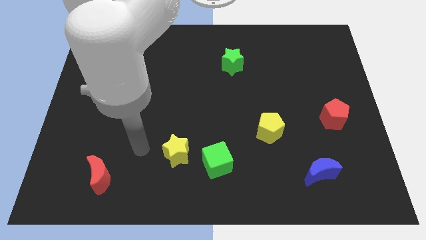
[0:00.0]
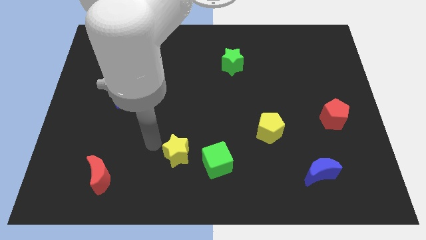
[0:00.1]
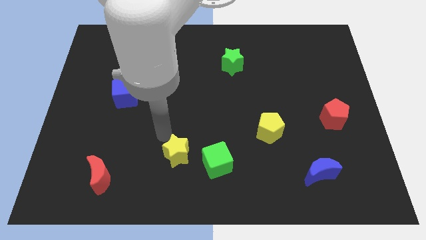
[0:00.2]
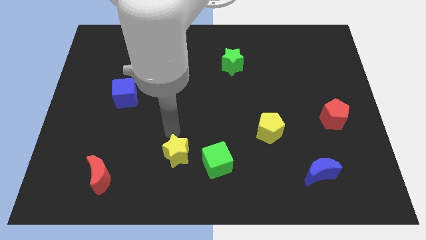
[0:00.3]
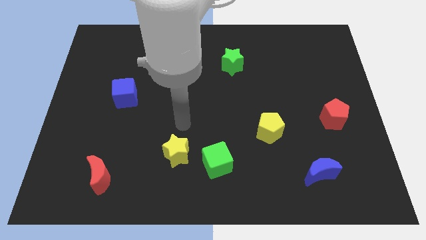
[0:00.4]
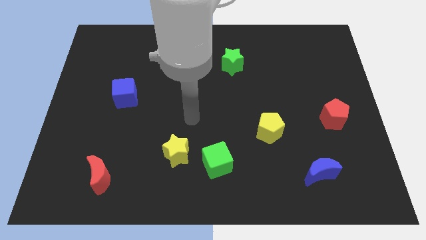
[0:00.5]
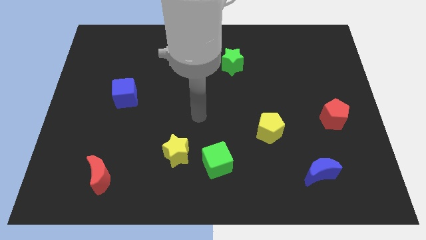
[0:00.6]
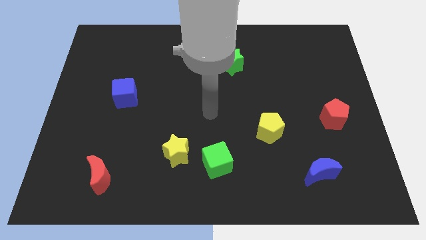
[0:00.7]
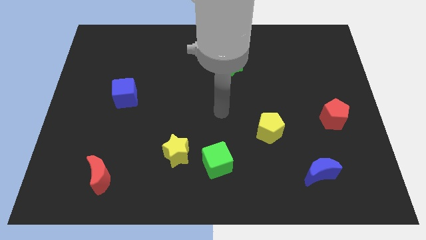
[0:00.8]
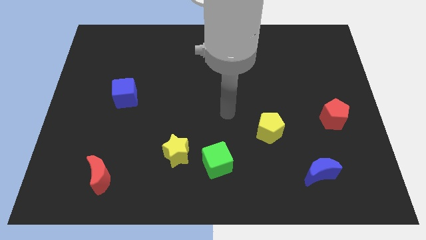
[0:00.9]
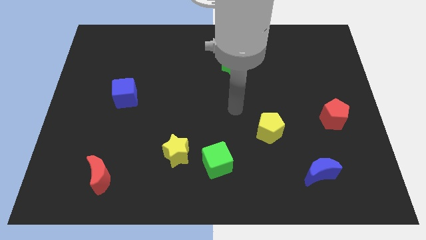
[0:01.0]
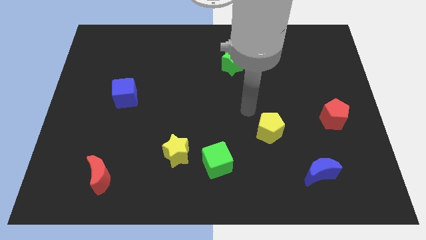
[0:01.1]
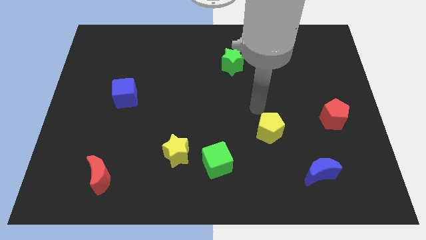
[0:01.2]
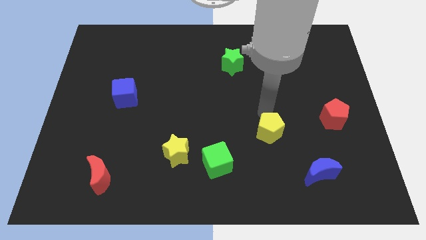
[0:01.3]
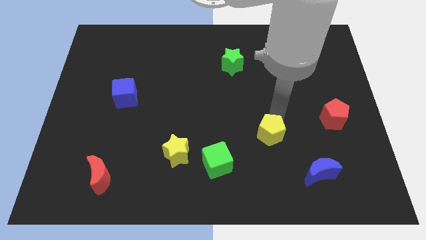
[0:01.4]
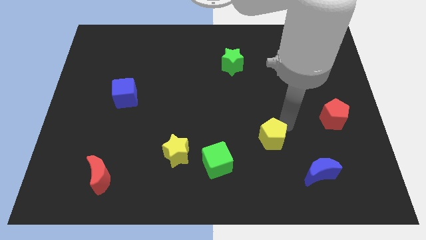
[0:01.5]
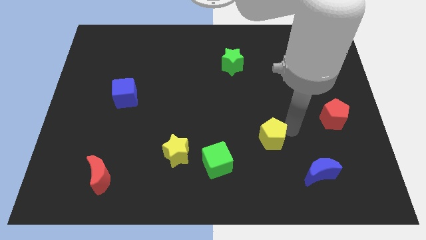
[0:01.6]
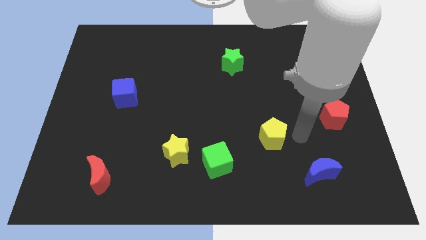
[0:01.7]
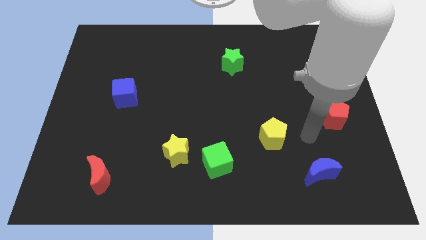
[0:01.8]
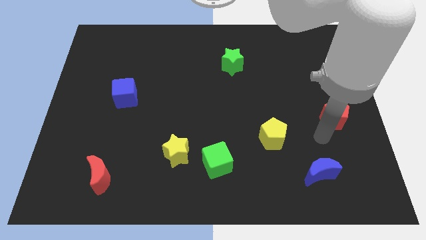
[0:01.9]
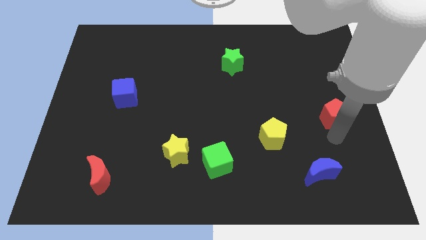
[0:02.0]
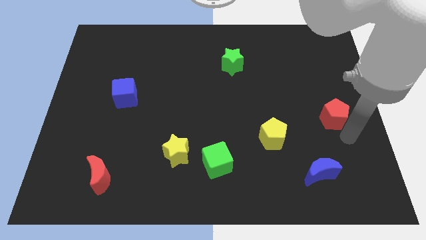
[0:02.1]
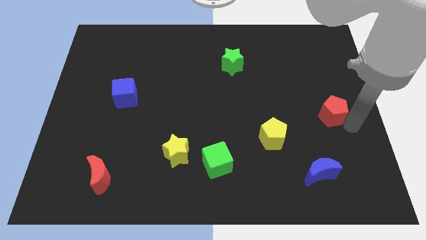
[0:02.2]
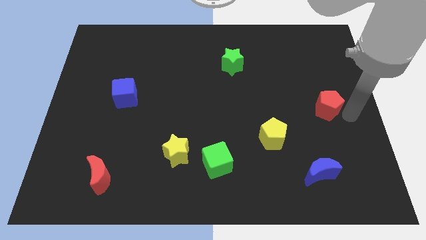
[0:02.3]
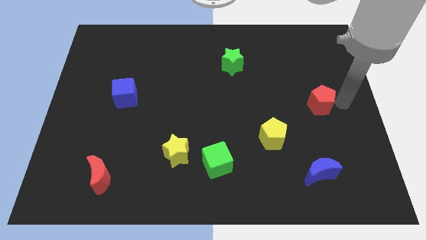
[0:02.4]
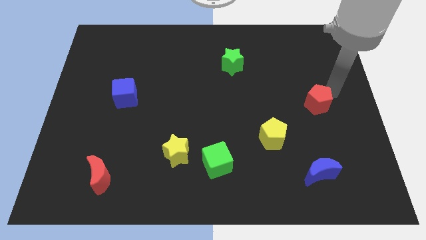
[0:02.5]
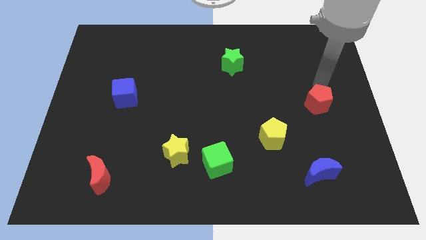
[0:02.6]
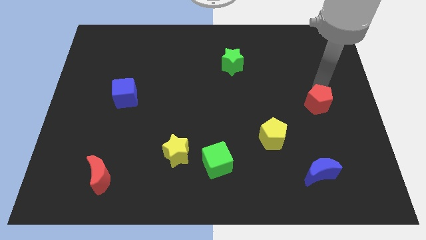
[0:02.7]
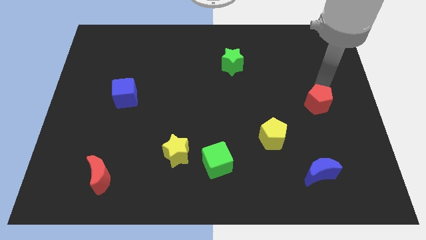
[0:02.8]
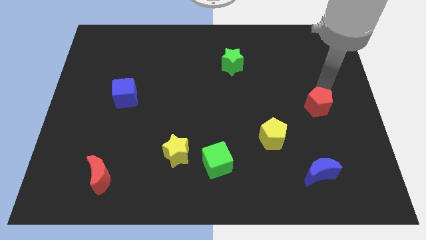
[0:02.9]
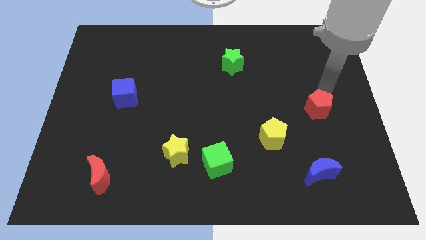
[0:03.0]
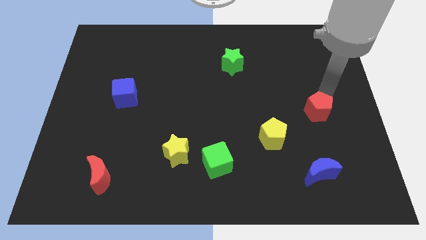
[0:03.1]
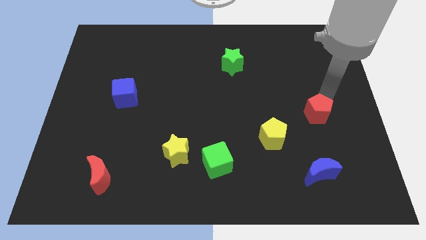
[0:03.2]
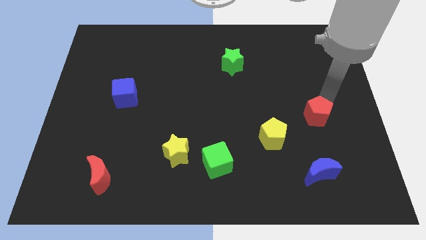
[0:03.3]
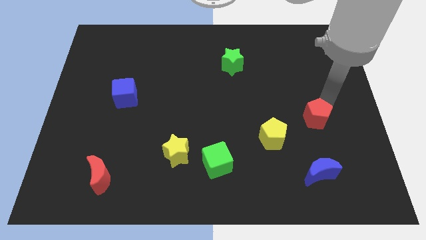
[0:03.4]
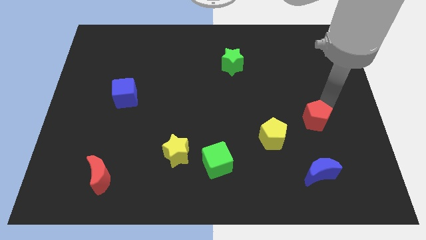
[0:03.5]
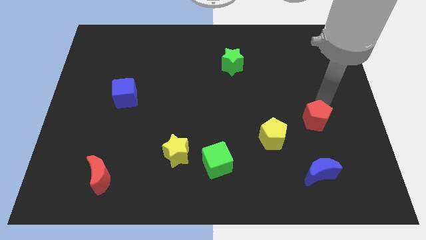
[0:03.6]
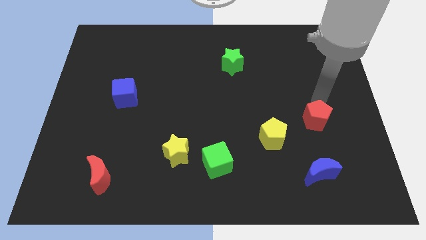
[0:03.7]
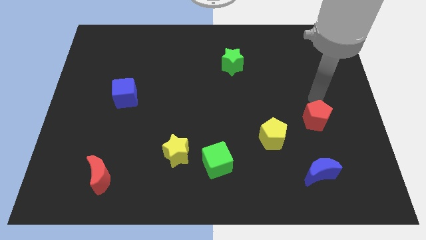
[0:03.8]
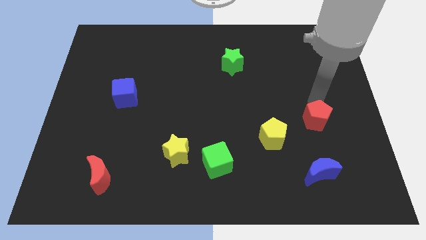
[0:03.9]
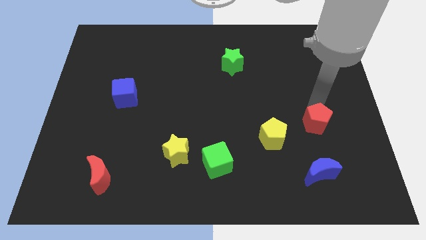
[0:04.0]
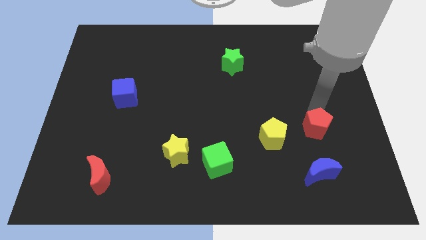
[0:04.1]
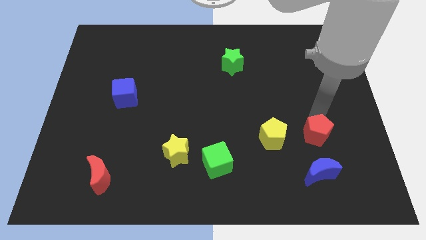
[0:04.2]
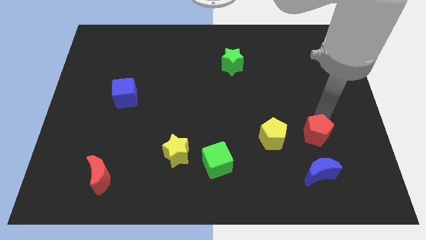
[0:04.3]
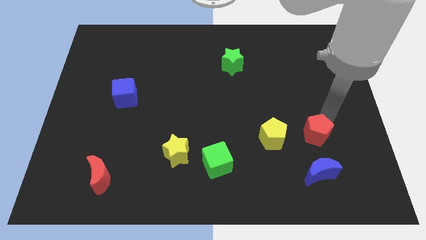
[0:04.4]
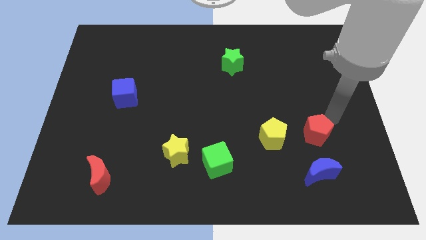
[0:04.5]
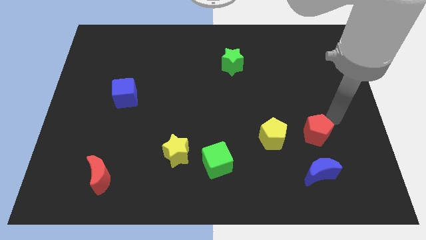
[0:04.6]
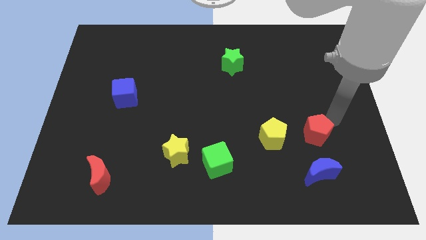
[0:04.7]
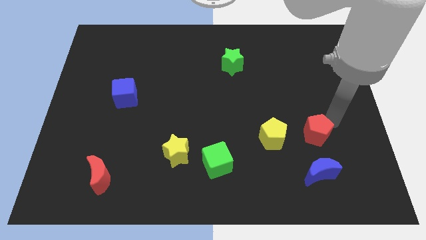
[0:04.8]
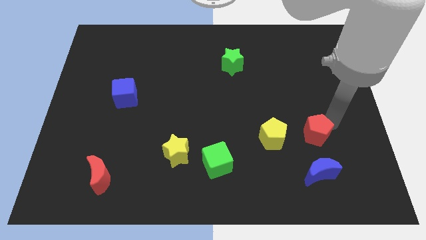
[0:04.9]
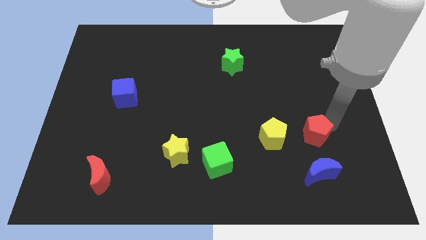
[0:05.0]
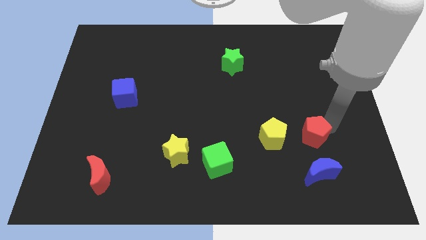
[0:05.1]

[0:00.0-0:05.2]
slightly slide the red pentagon downwards and left

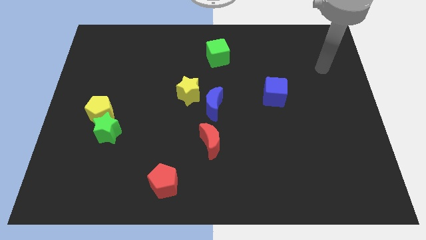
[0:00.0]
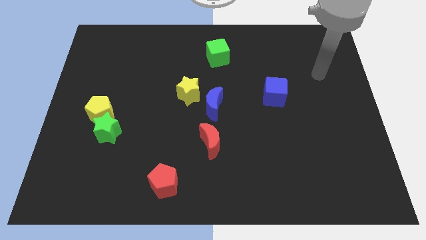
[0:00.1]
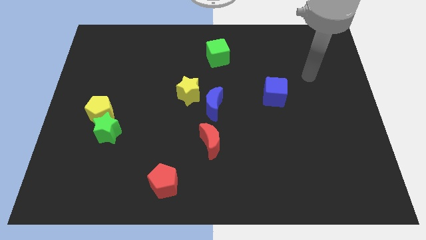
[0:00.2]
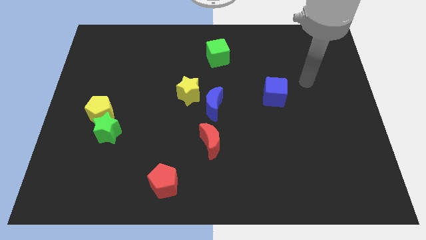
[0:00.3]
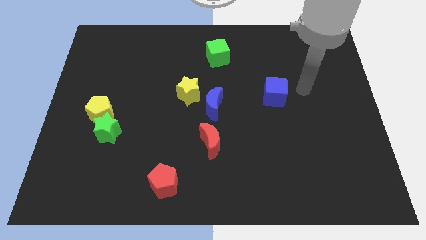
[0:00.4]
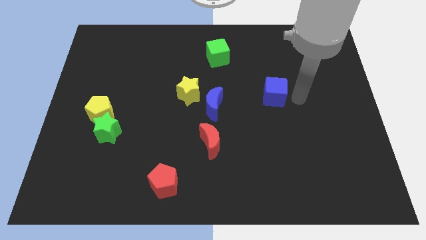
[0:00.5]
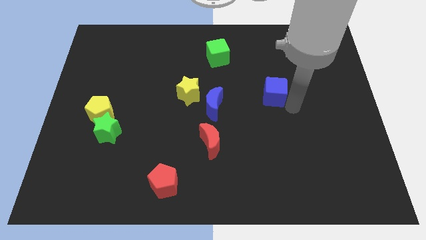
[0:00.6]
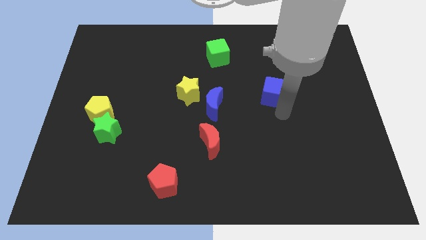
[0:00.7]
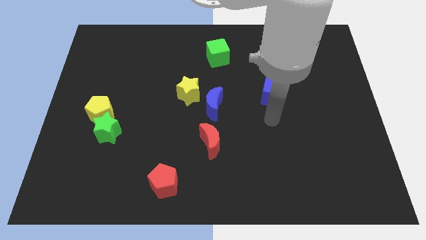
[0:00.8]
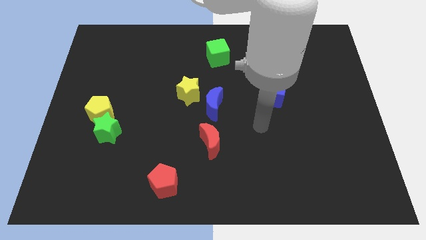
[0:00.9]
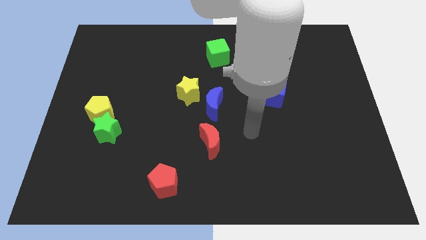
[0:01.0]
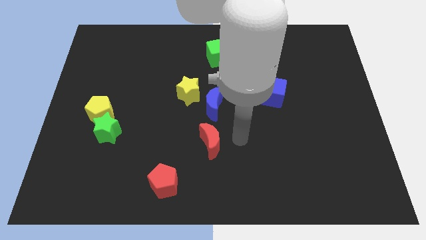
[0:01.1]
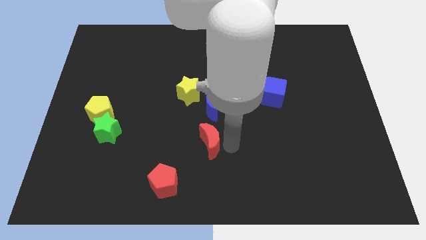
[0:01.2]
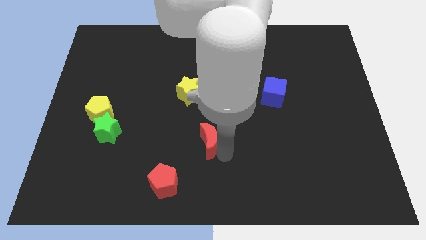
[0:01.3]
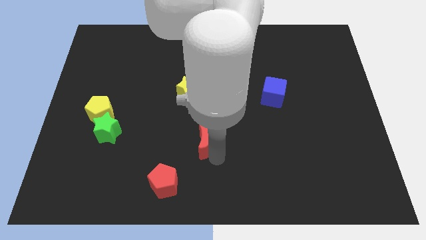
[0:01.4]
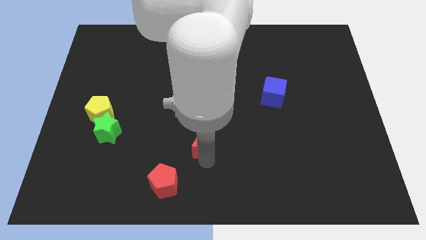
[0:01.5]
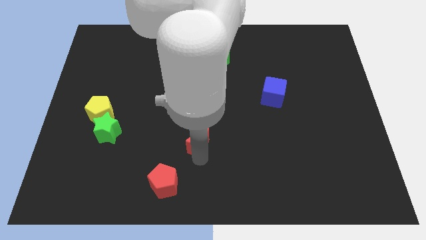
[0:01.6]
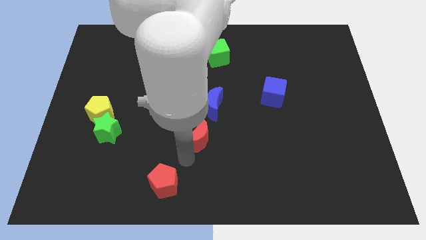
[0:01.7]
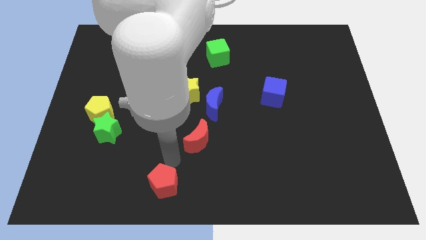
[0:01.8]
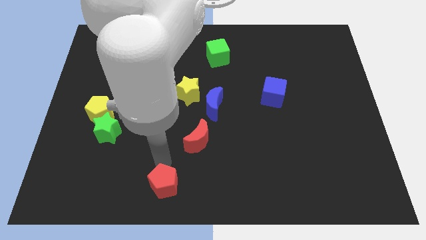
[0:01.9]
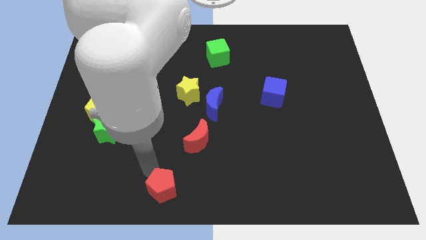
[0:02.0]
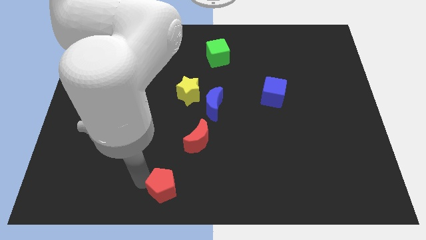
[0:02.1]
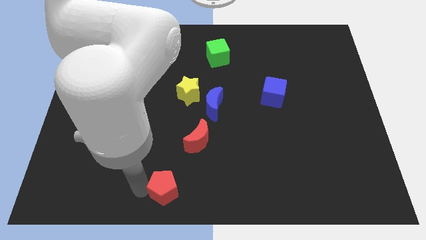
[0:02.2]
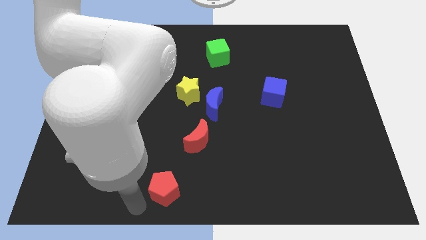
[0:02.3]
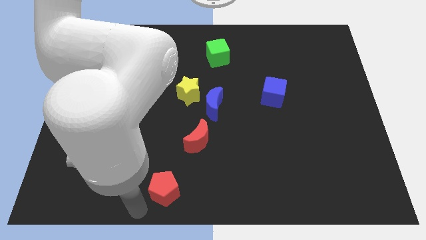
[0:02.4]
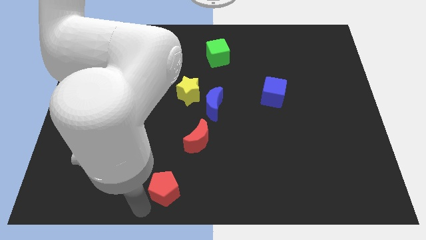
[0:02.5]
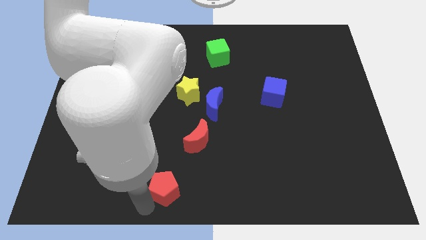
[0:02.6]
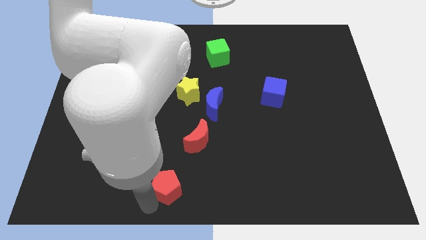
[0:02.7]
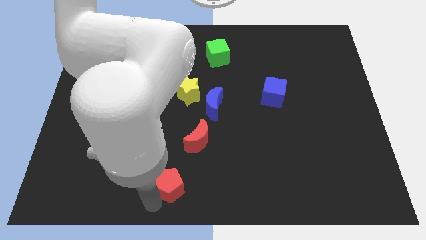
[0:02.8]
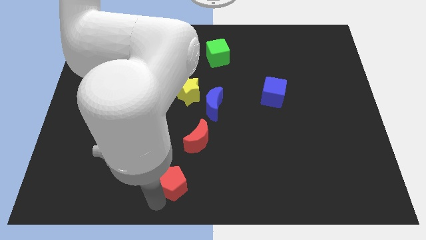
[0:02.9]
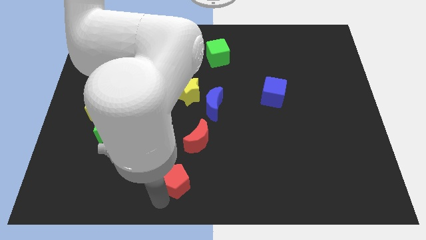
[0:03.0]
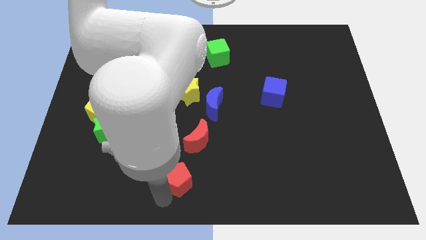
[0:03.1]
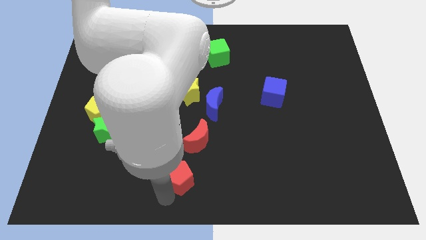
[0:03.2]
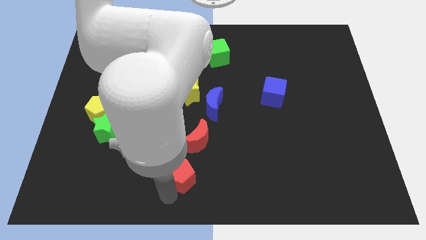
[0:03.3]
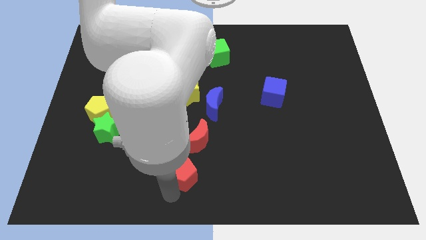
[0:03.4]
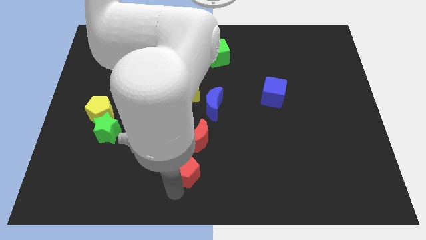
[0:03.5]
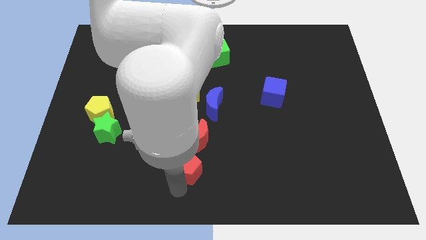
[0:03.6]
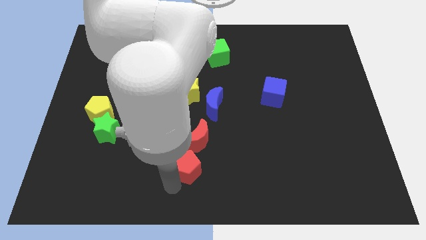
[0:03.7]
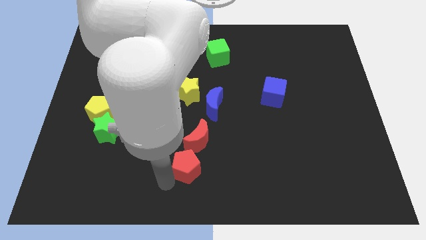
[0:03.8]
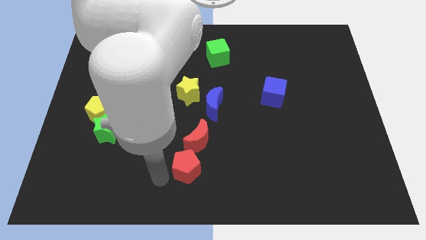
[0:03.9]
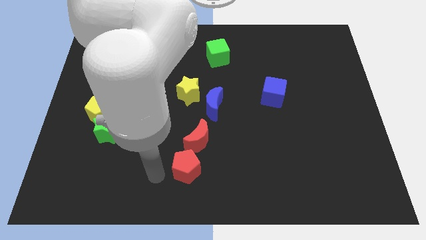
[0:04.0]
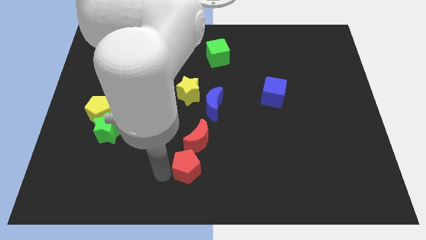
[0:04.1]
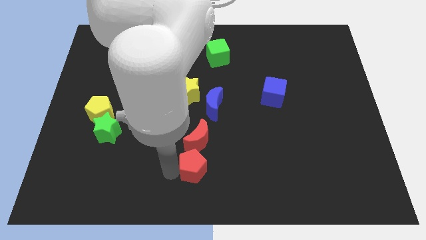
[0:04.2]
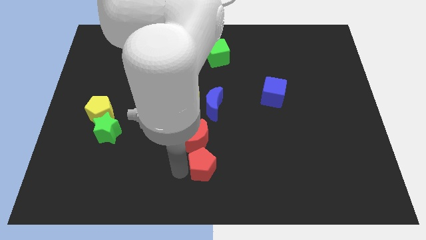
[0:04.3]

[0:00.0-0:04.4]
push the red pentagon a little bit to the right
